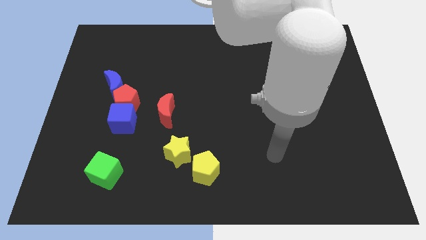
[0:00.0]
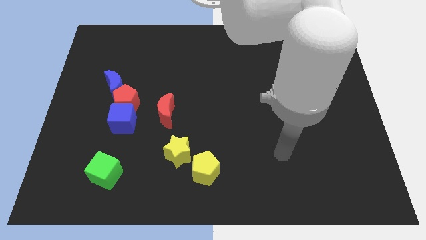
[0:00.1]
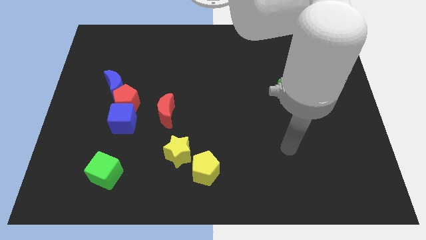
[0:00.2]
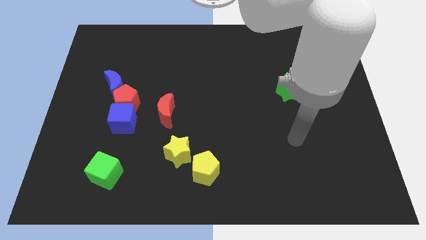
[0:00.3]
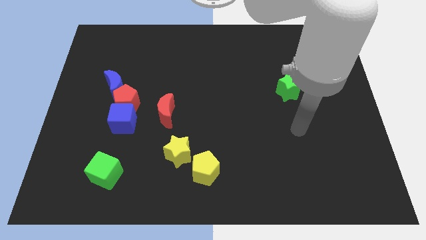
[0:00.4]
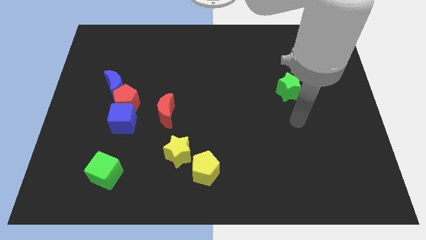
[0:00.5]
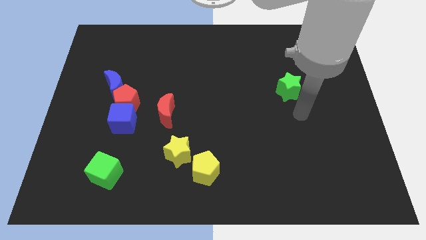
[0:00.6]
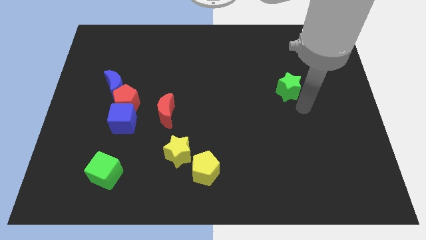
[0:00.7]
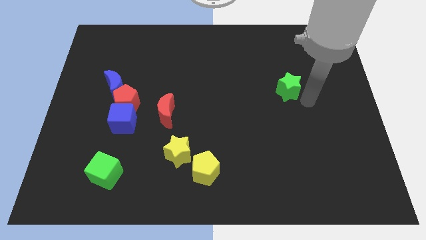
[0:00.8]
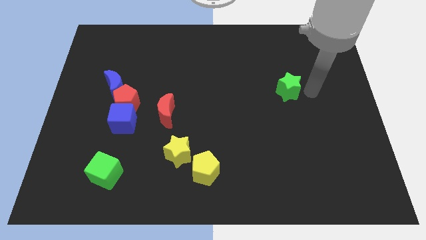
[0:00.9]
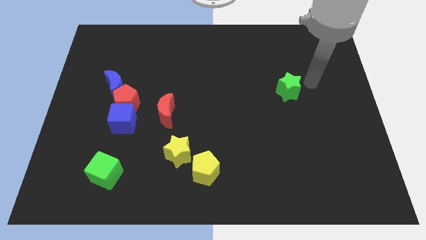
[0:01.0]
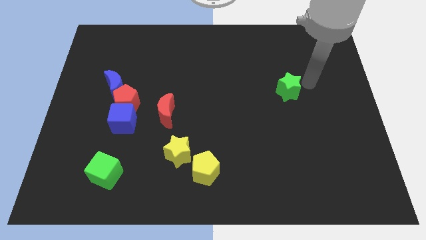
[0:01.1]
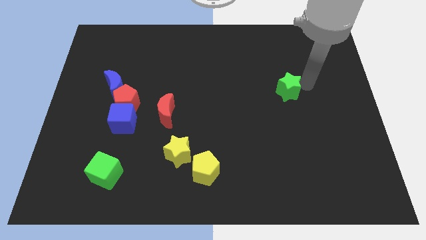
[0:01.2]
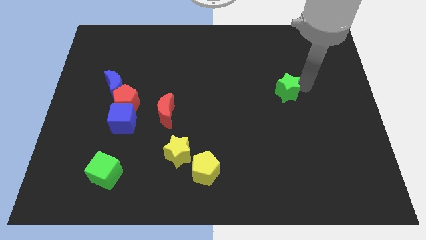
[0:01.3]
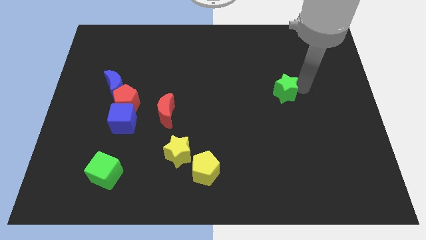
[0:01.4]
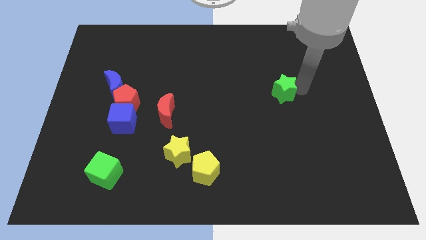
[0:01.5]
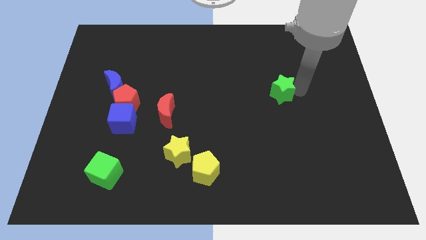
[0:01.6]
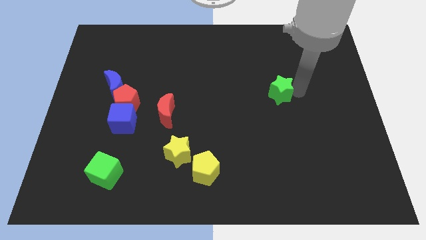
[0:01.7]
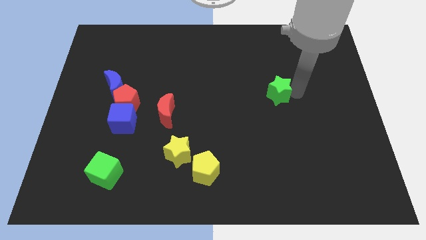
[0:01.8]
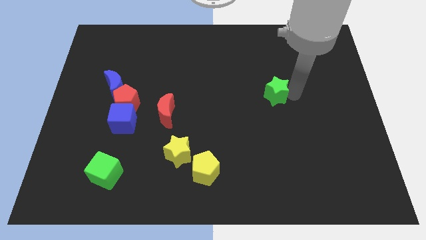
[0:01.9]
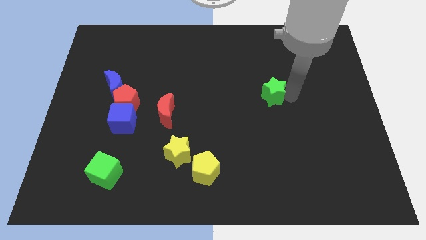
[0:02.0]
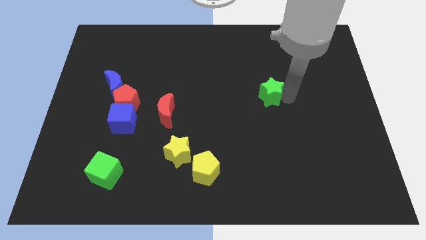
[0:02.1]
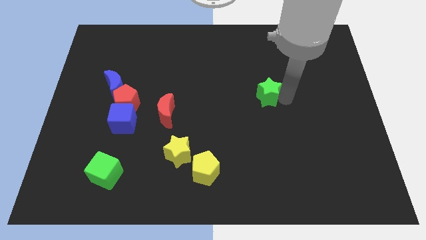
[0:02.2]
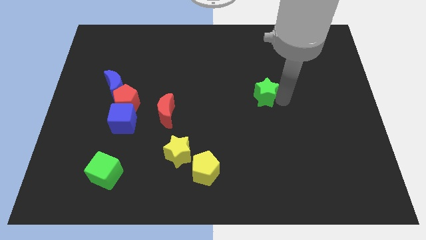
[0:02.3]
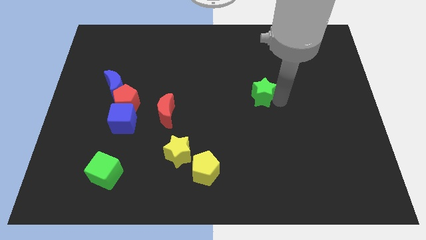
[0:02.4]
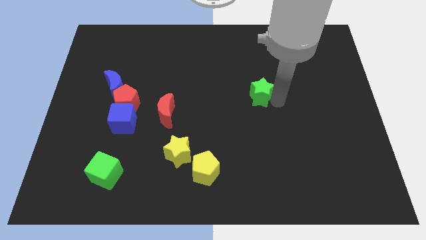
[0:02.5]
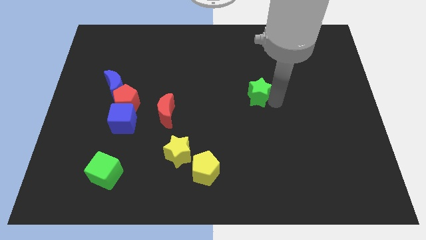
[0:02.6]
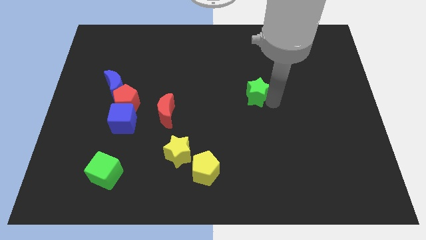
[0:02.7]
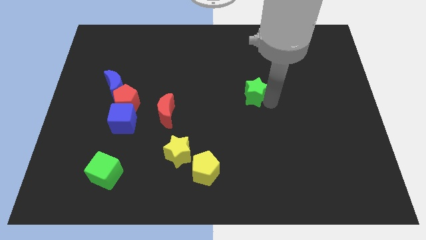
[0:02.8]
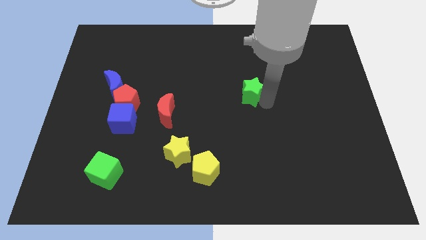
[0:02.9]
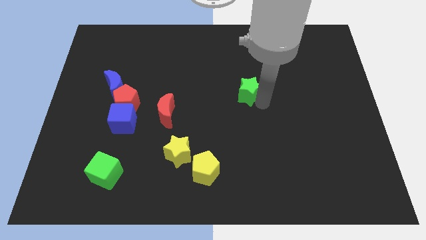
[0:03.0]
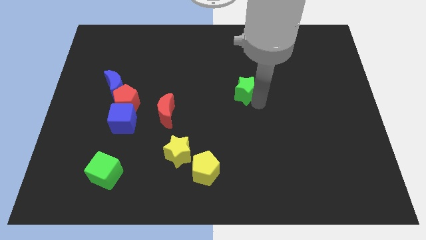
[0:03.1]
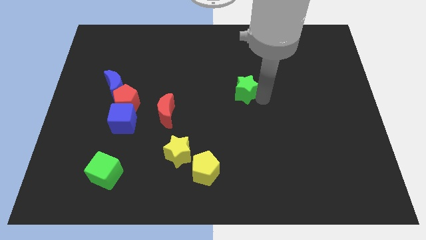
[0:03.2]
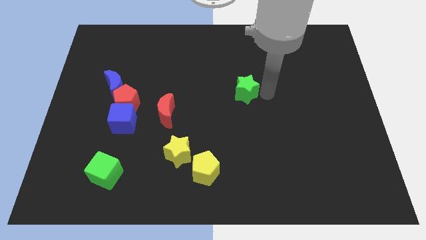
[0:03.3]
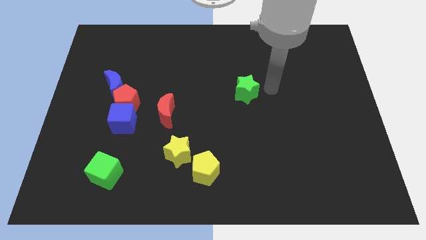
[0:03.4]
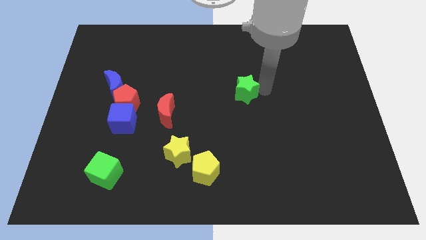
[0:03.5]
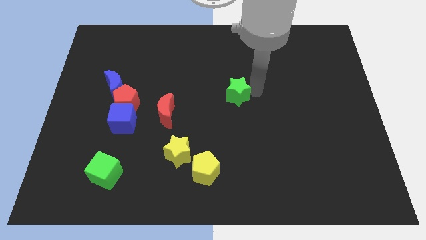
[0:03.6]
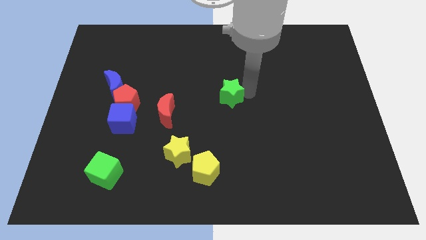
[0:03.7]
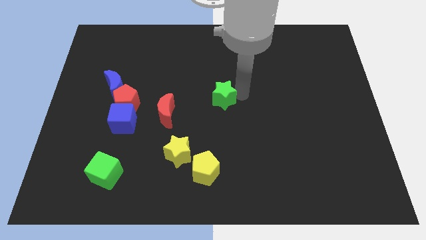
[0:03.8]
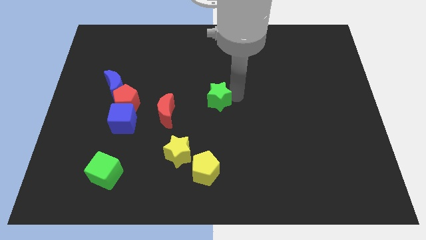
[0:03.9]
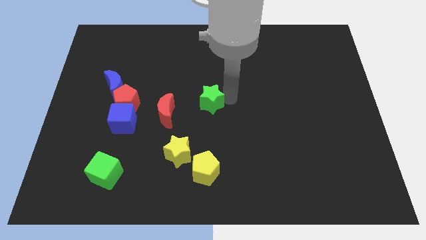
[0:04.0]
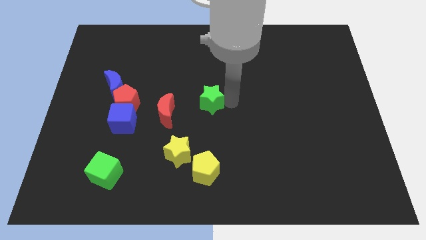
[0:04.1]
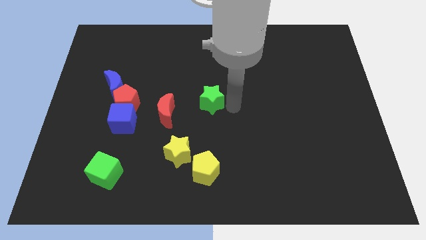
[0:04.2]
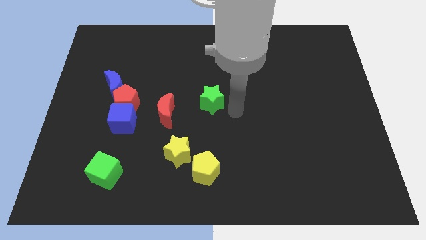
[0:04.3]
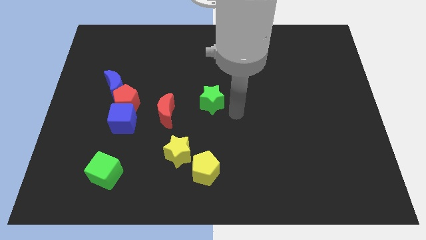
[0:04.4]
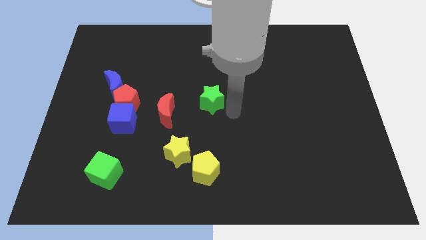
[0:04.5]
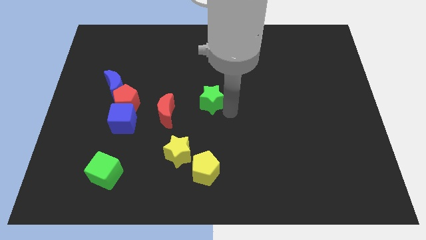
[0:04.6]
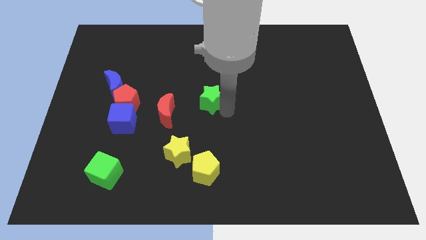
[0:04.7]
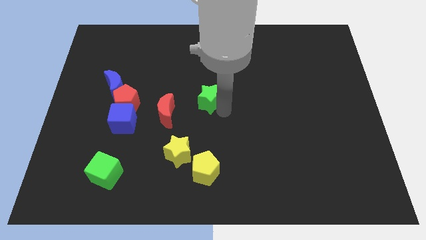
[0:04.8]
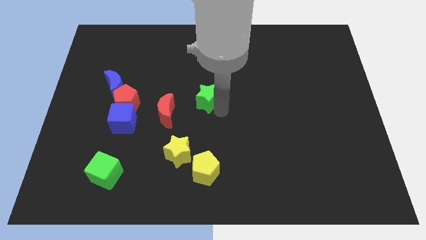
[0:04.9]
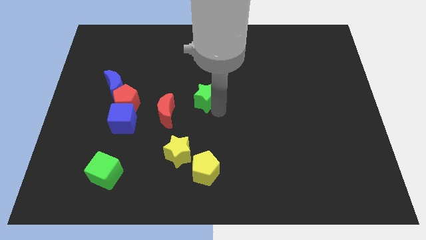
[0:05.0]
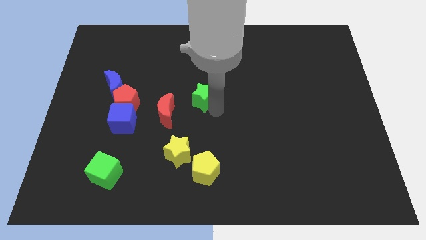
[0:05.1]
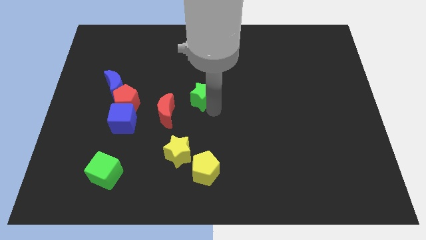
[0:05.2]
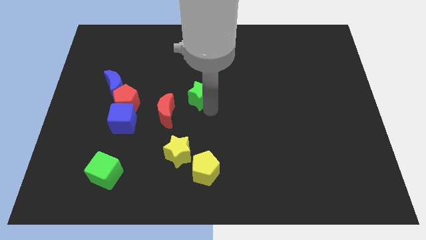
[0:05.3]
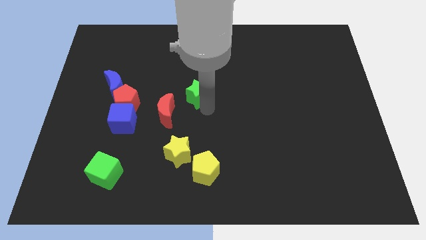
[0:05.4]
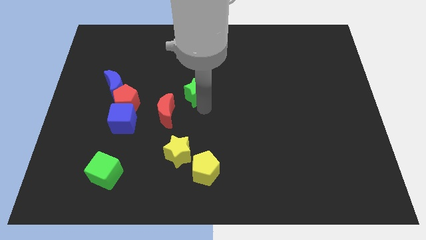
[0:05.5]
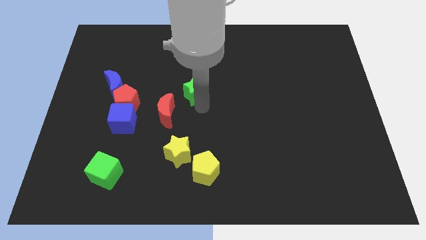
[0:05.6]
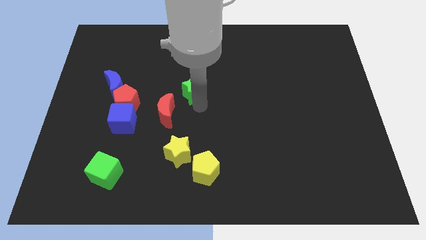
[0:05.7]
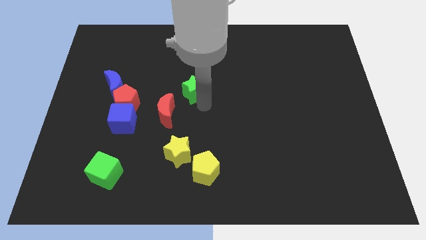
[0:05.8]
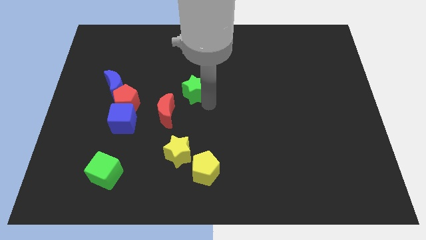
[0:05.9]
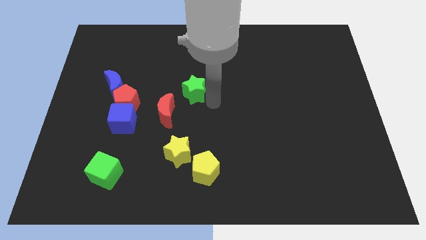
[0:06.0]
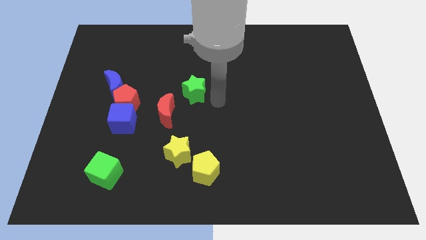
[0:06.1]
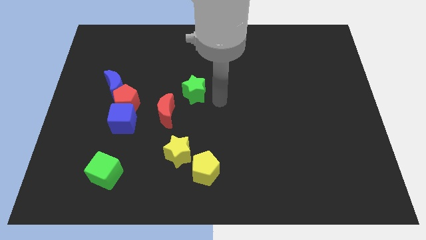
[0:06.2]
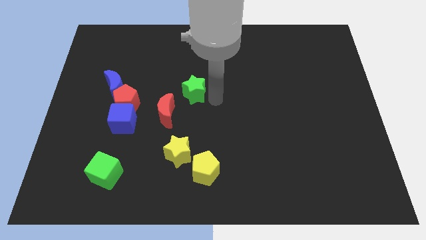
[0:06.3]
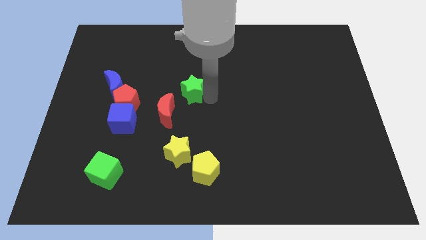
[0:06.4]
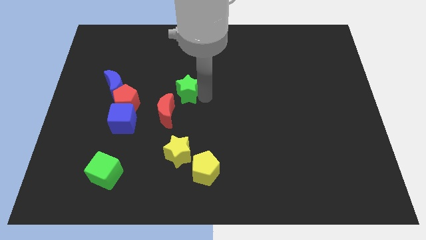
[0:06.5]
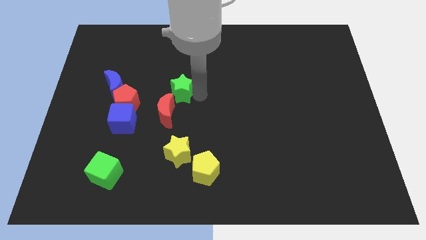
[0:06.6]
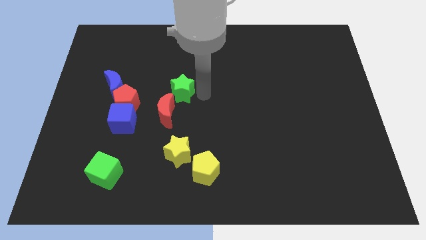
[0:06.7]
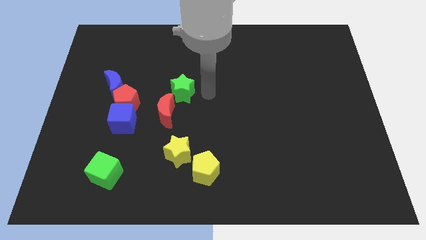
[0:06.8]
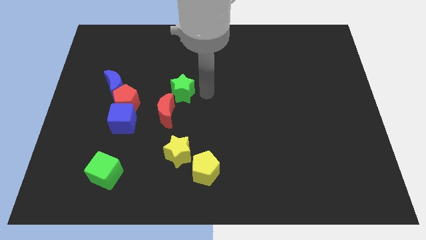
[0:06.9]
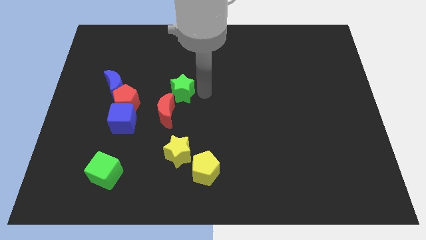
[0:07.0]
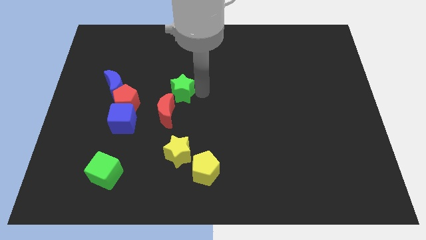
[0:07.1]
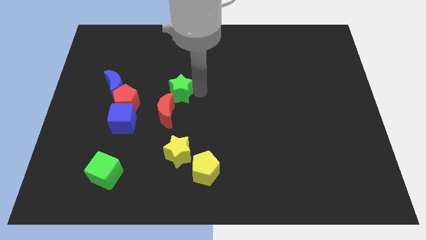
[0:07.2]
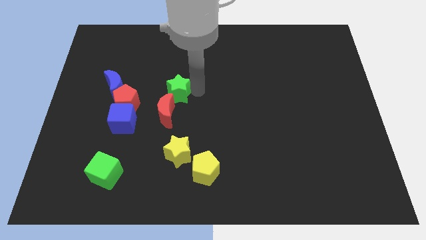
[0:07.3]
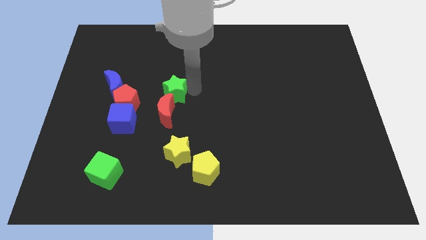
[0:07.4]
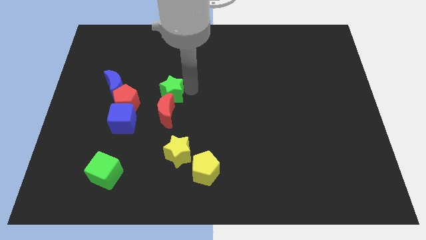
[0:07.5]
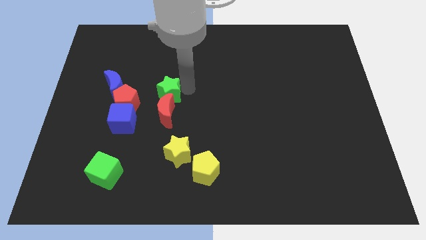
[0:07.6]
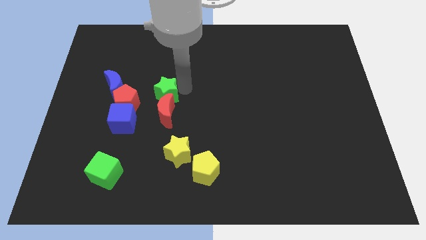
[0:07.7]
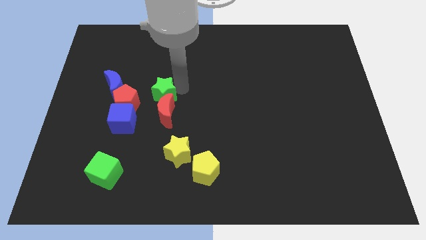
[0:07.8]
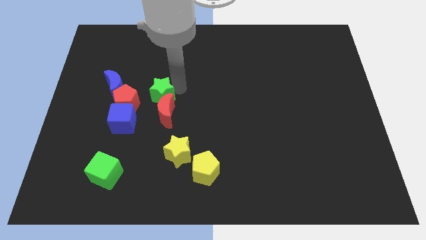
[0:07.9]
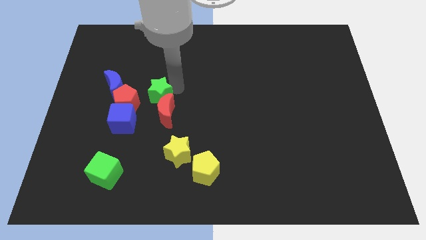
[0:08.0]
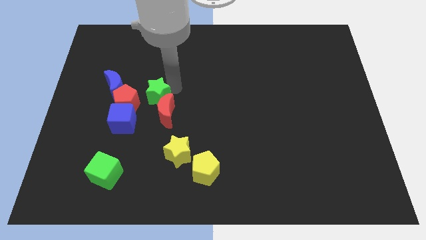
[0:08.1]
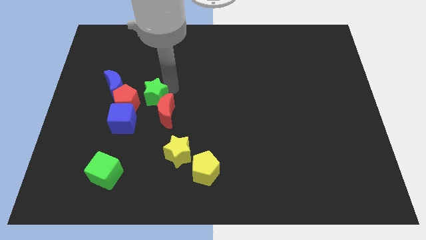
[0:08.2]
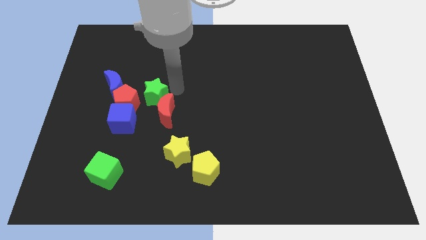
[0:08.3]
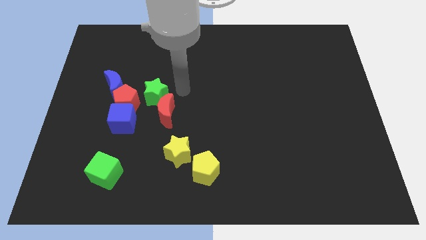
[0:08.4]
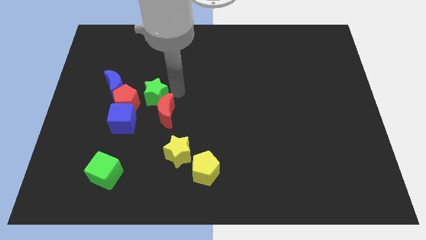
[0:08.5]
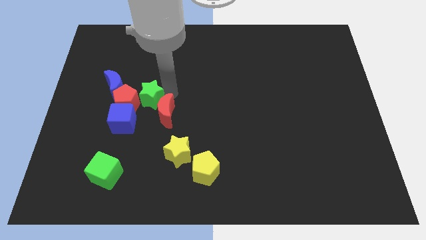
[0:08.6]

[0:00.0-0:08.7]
push the green star to the red pentagon
